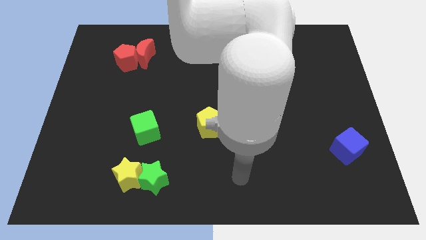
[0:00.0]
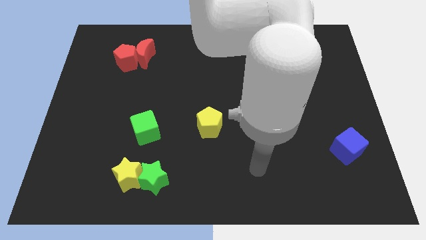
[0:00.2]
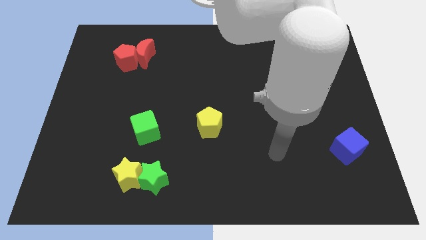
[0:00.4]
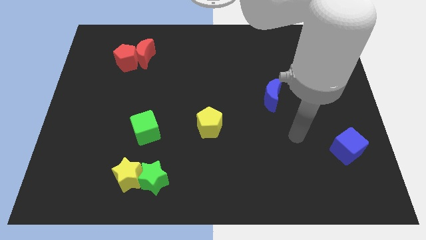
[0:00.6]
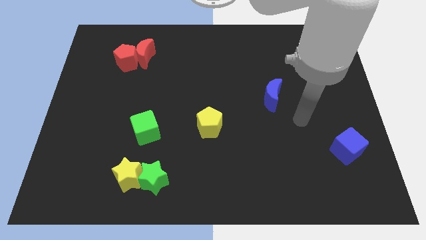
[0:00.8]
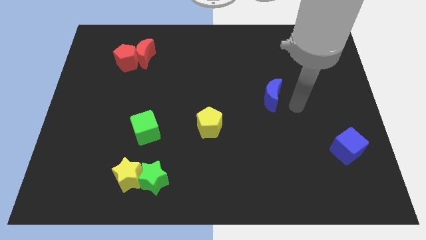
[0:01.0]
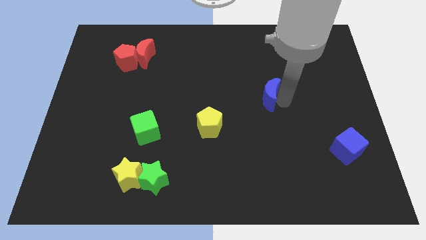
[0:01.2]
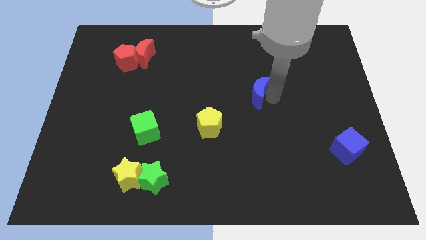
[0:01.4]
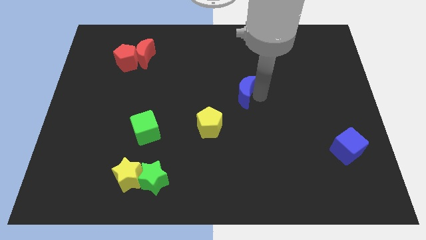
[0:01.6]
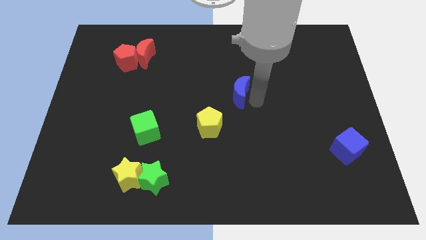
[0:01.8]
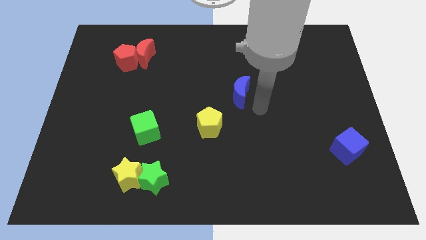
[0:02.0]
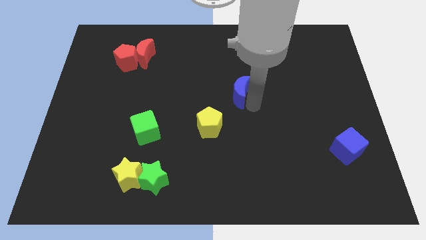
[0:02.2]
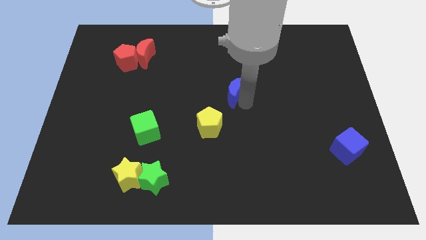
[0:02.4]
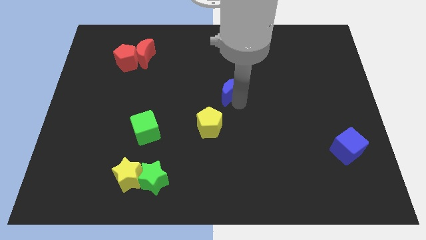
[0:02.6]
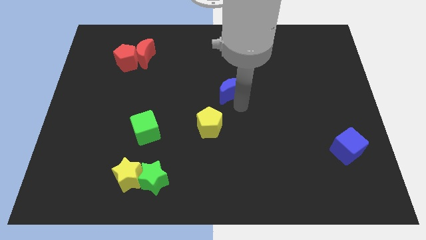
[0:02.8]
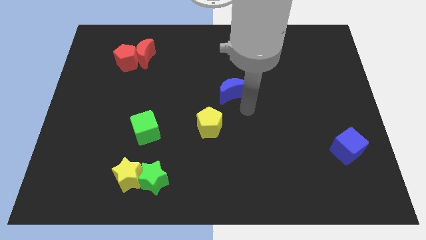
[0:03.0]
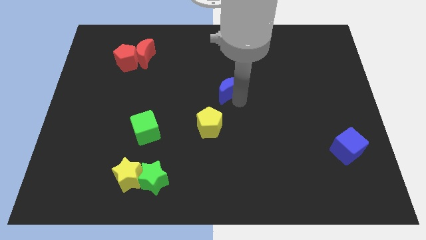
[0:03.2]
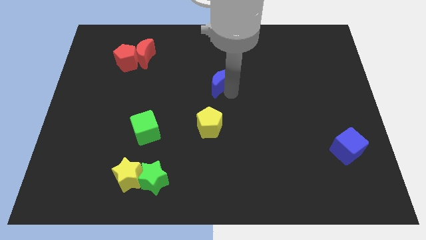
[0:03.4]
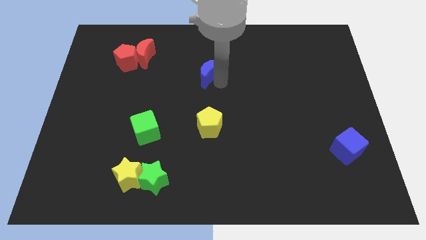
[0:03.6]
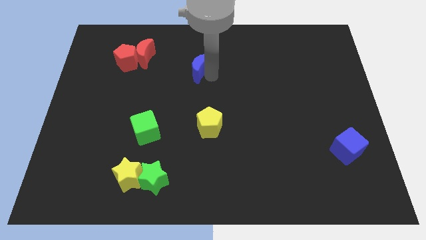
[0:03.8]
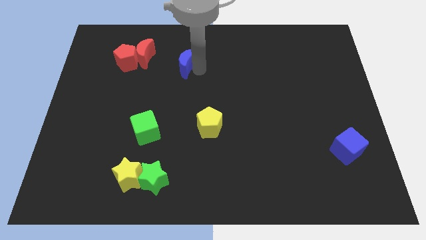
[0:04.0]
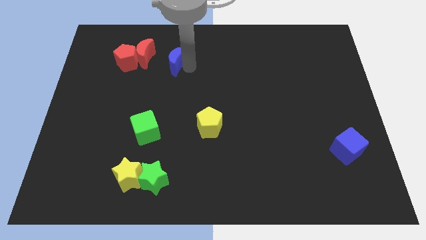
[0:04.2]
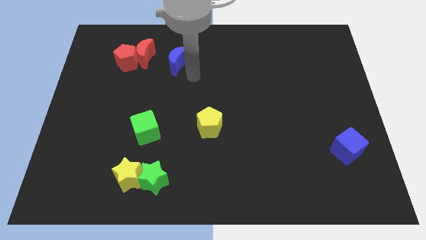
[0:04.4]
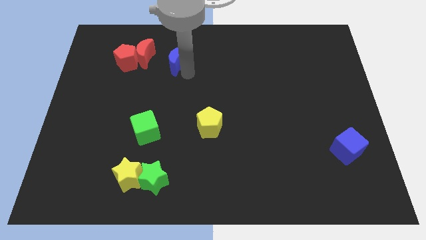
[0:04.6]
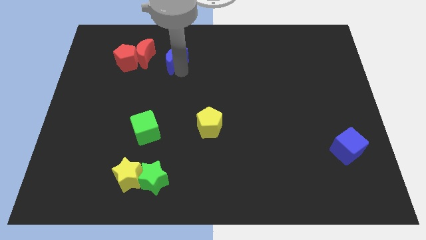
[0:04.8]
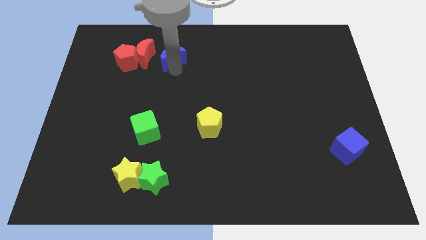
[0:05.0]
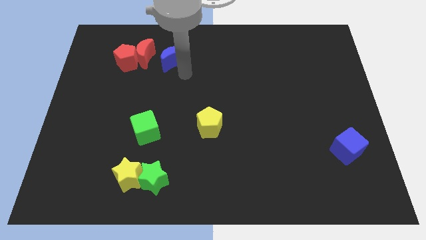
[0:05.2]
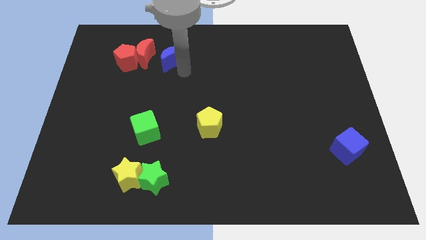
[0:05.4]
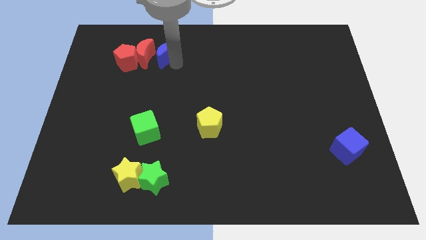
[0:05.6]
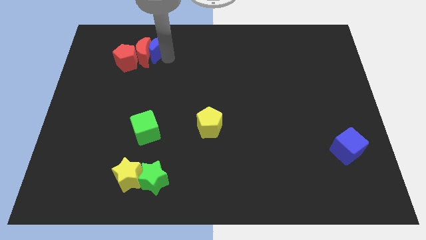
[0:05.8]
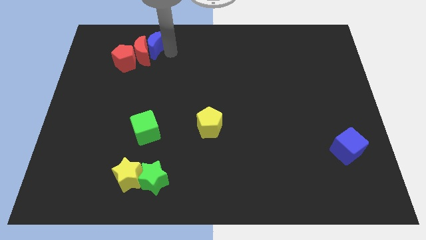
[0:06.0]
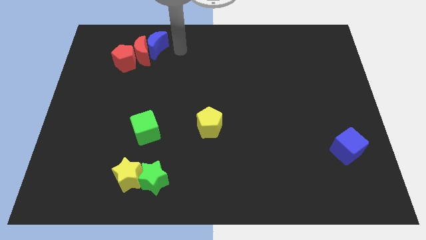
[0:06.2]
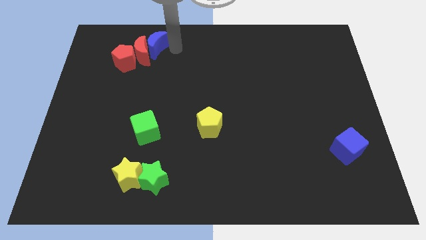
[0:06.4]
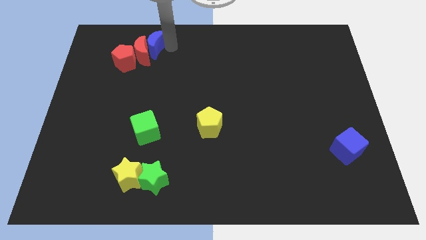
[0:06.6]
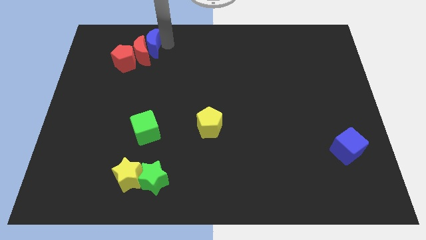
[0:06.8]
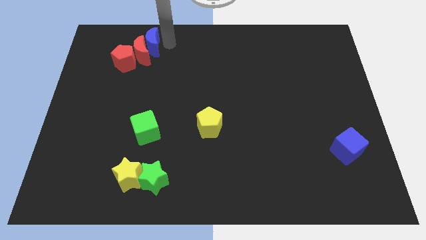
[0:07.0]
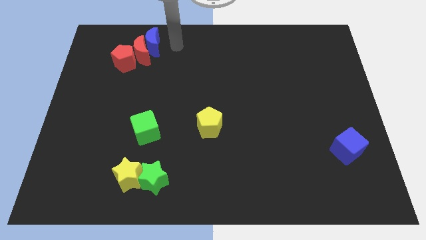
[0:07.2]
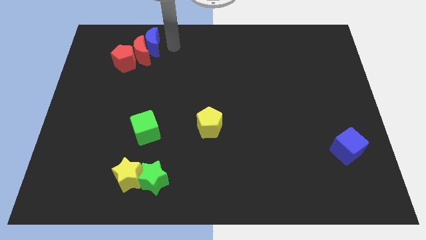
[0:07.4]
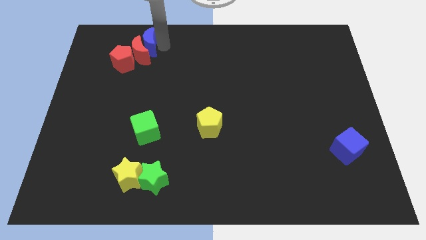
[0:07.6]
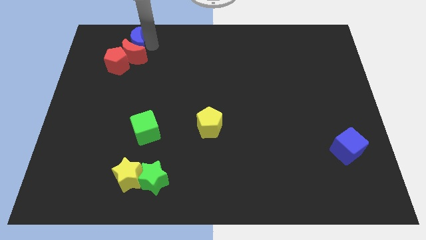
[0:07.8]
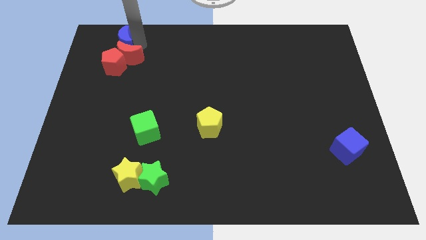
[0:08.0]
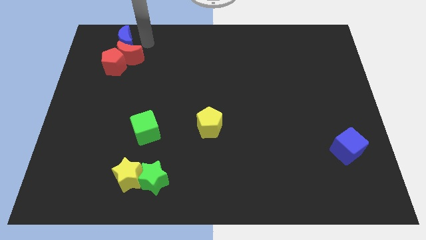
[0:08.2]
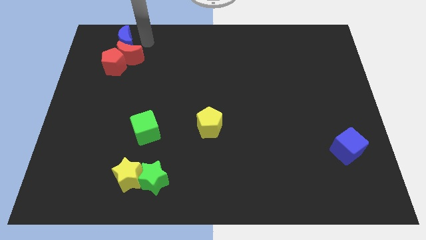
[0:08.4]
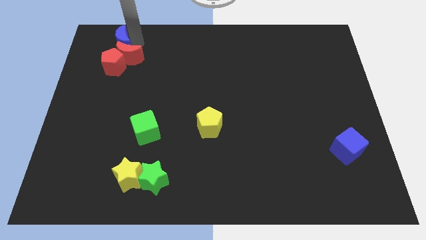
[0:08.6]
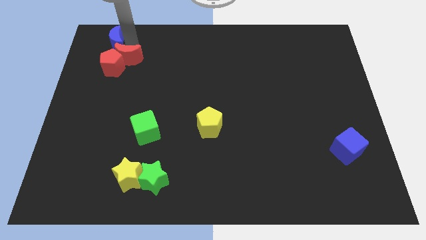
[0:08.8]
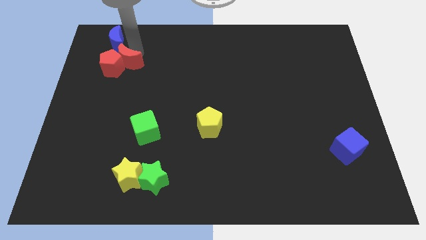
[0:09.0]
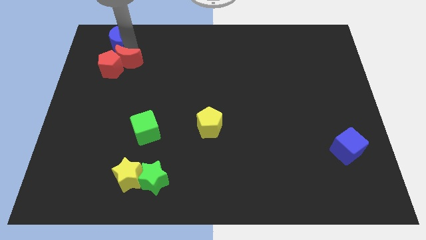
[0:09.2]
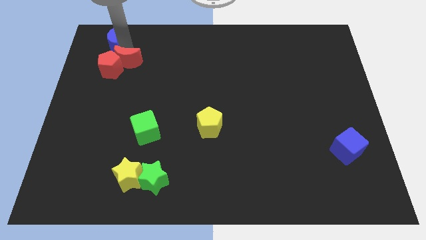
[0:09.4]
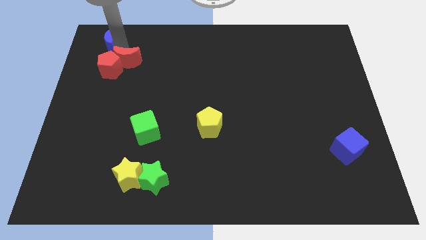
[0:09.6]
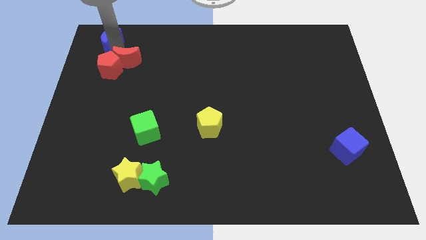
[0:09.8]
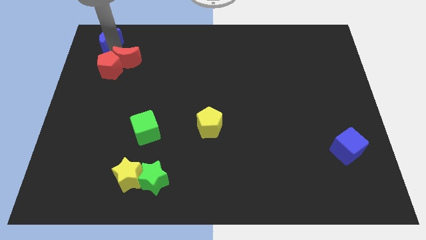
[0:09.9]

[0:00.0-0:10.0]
push the blue moon to the upper left corner

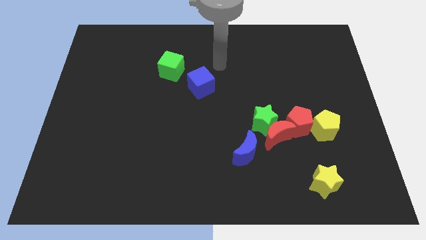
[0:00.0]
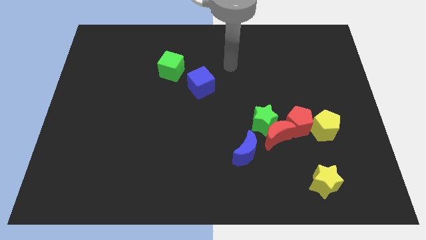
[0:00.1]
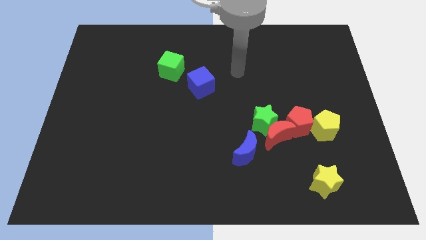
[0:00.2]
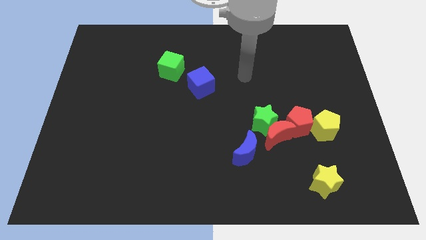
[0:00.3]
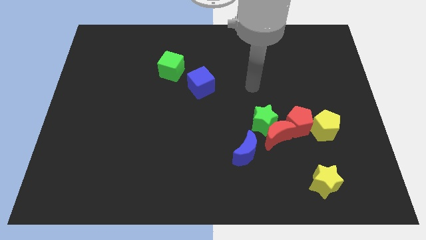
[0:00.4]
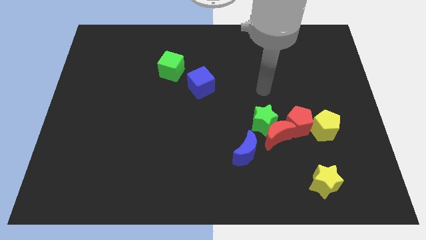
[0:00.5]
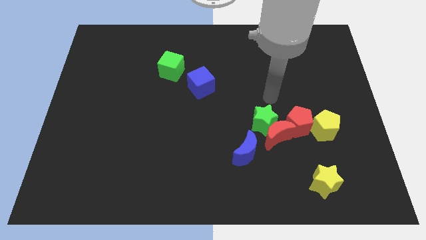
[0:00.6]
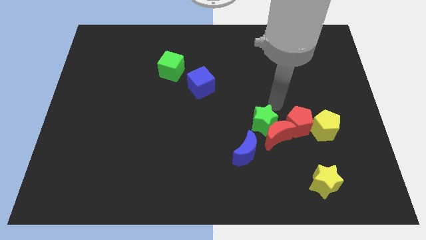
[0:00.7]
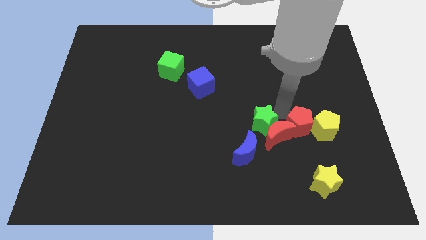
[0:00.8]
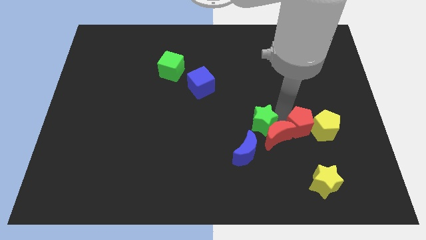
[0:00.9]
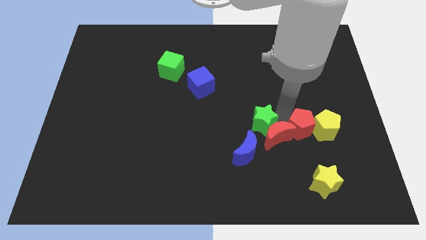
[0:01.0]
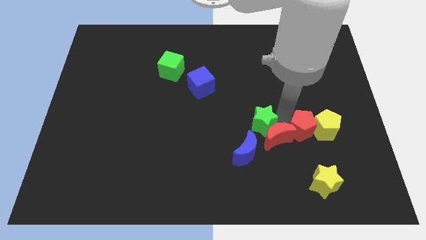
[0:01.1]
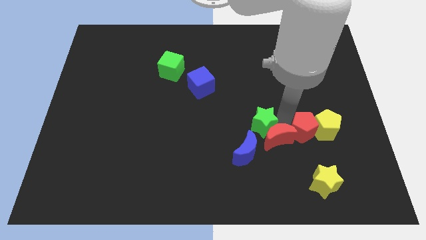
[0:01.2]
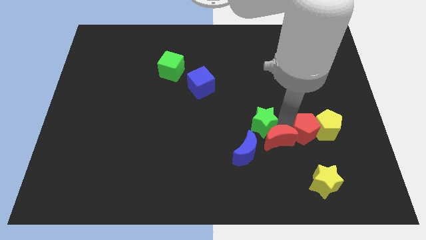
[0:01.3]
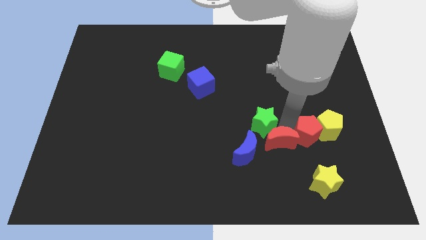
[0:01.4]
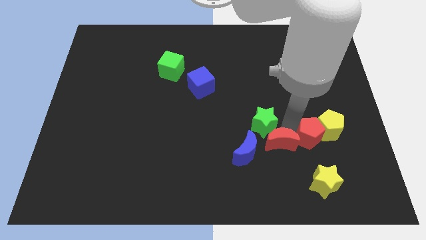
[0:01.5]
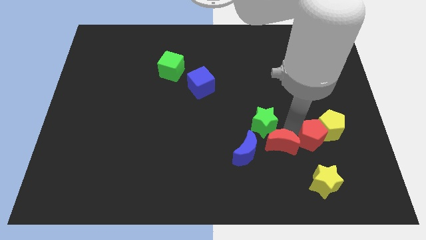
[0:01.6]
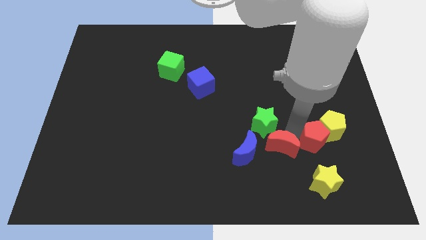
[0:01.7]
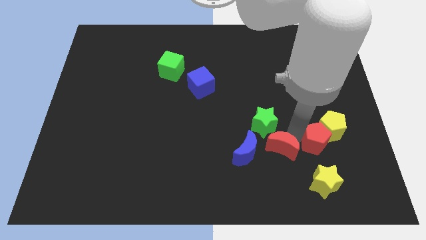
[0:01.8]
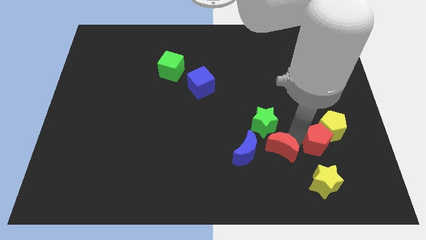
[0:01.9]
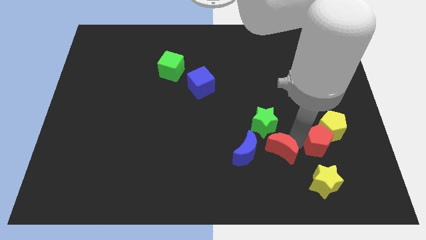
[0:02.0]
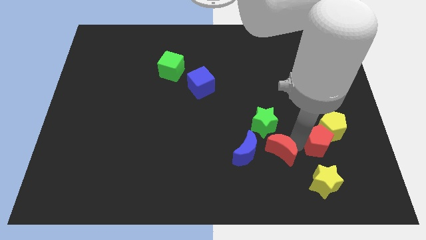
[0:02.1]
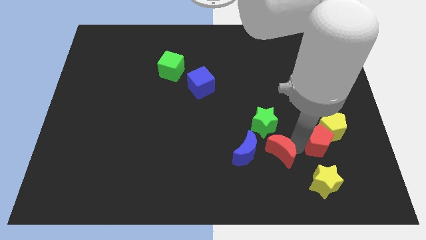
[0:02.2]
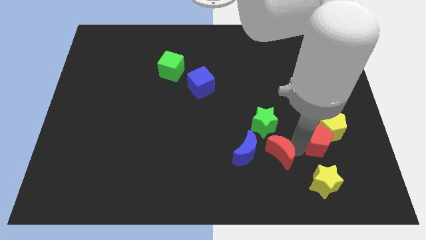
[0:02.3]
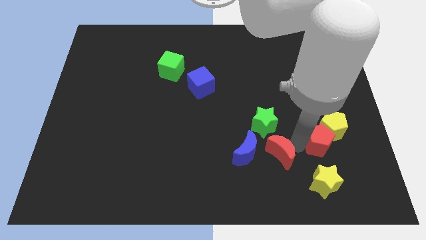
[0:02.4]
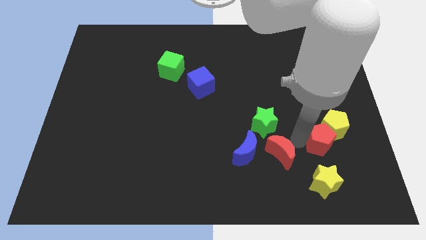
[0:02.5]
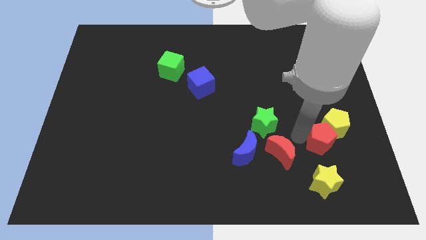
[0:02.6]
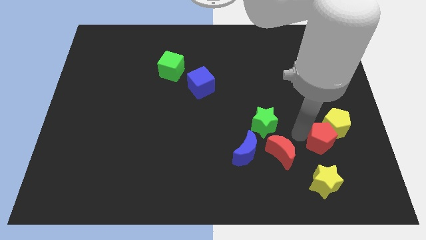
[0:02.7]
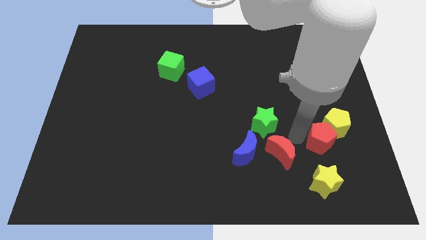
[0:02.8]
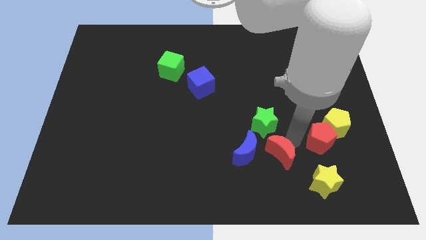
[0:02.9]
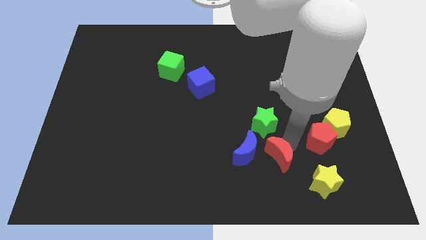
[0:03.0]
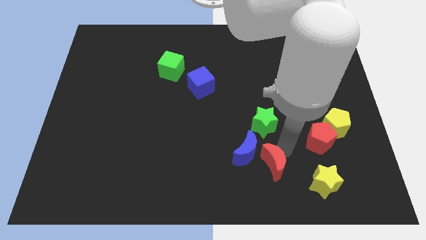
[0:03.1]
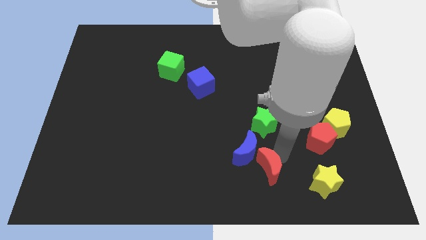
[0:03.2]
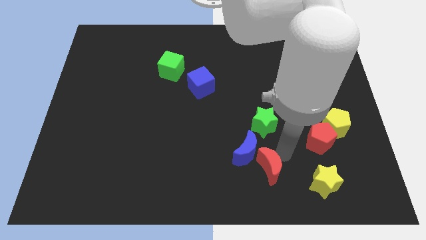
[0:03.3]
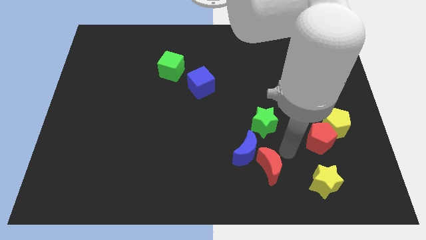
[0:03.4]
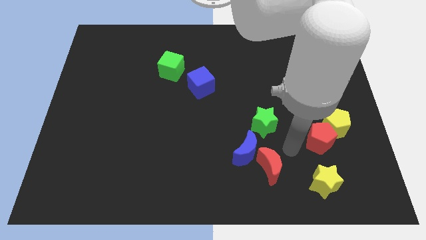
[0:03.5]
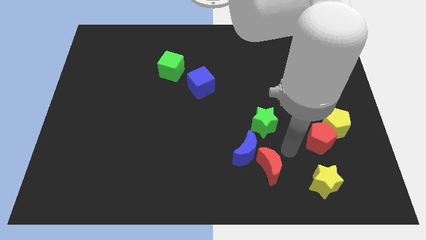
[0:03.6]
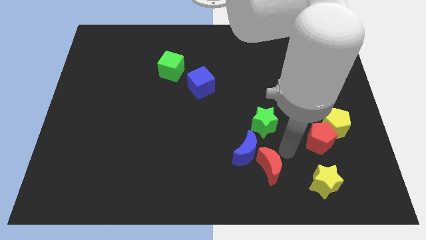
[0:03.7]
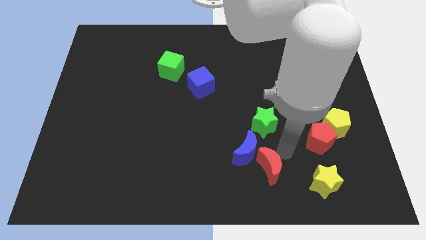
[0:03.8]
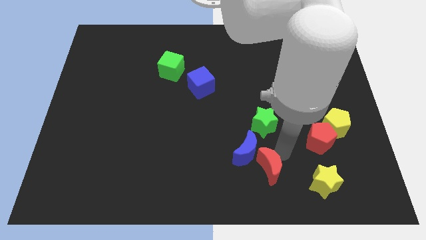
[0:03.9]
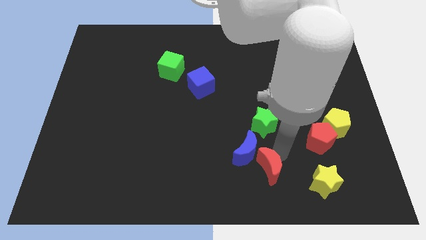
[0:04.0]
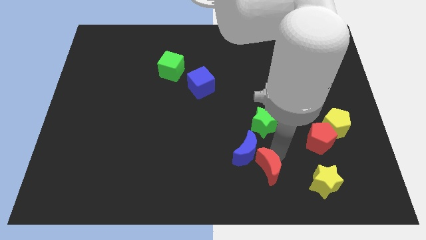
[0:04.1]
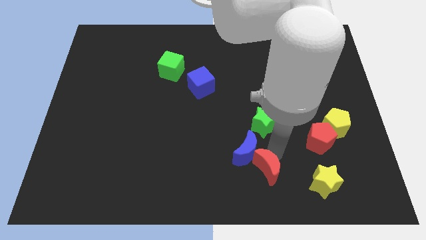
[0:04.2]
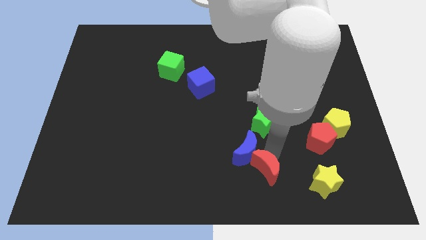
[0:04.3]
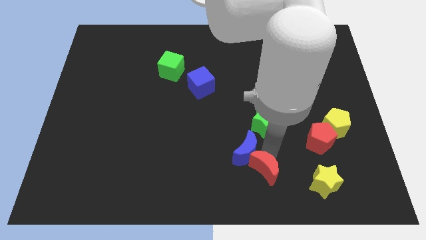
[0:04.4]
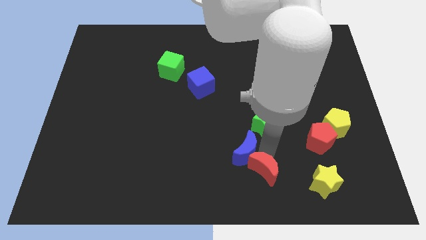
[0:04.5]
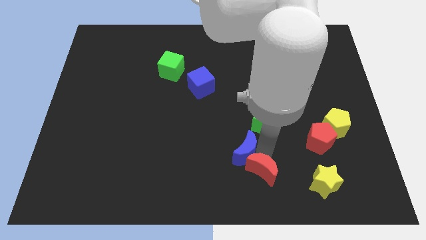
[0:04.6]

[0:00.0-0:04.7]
push the red moon to the bottom side
